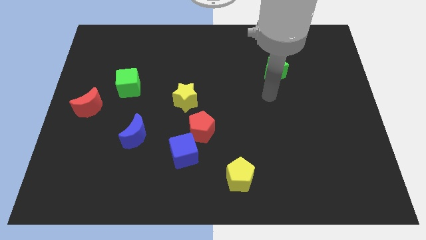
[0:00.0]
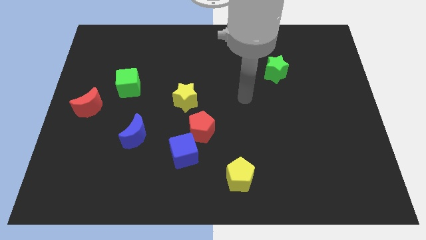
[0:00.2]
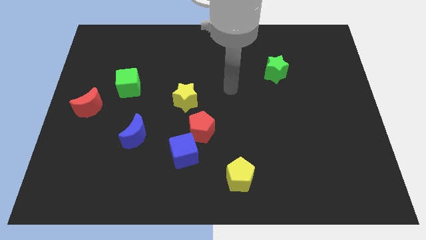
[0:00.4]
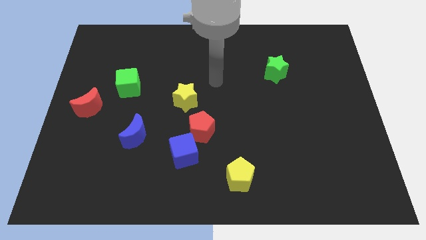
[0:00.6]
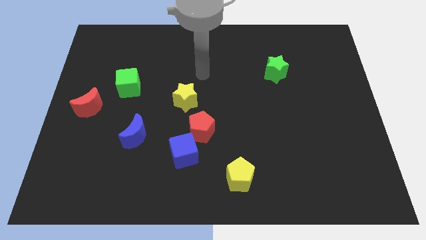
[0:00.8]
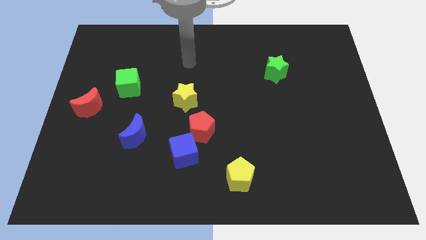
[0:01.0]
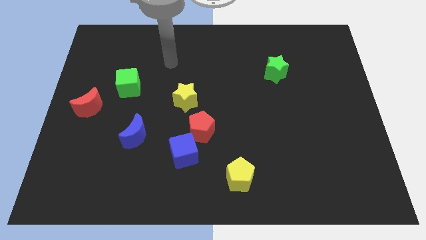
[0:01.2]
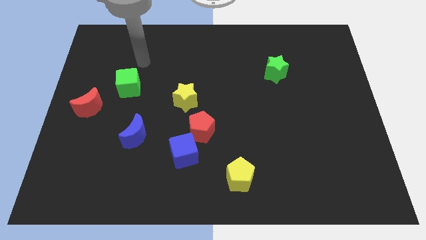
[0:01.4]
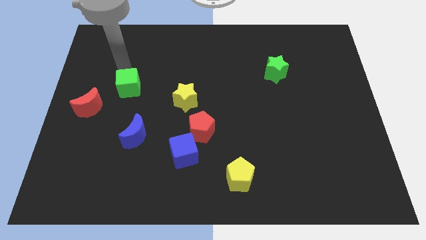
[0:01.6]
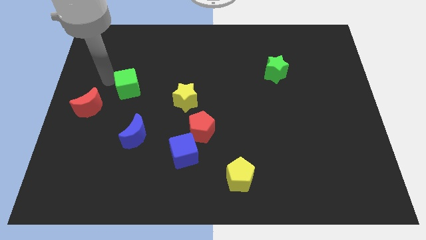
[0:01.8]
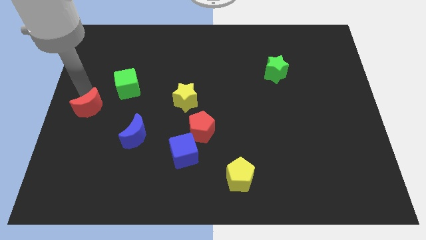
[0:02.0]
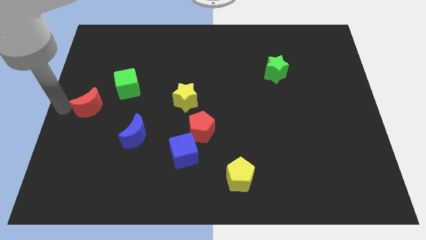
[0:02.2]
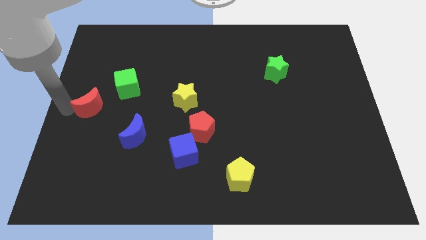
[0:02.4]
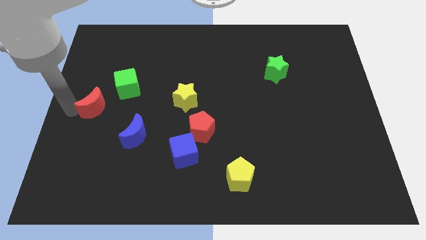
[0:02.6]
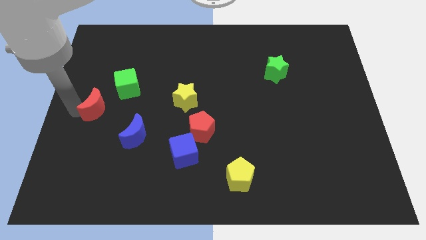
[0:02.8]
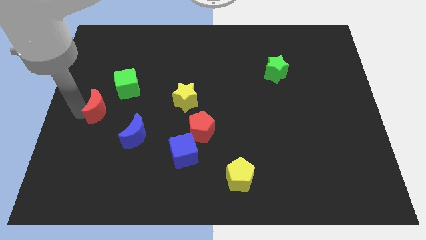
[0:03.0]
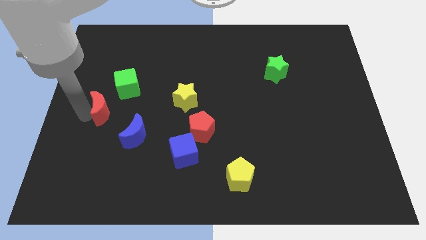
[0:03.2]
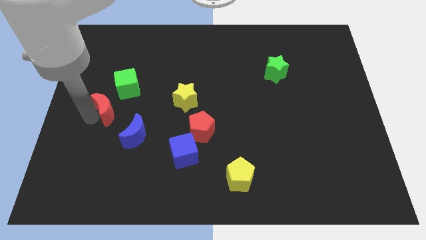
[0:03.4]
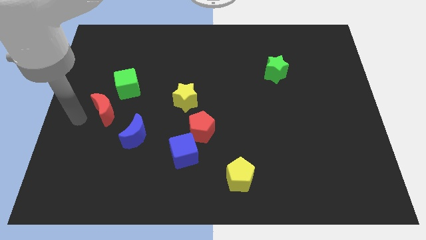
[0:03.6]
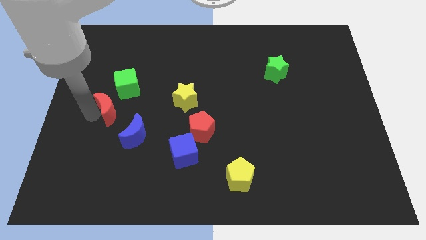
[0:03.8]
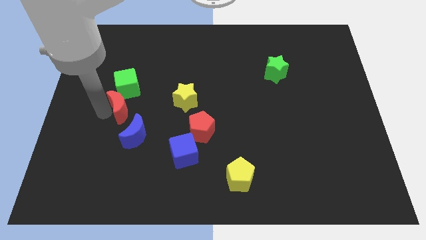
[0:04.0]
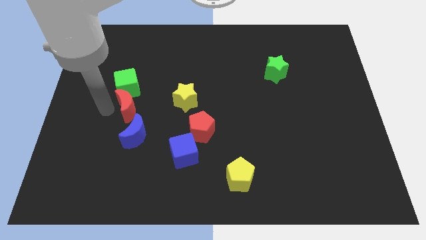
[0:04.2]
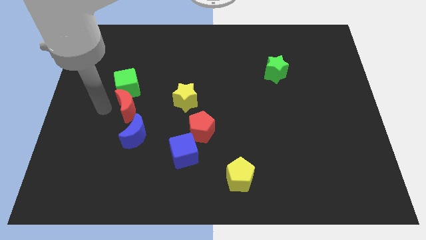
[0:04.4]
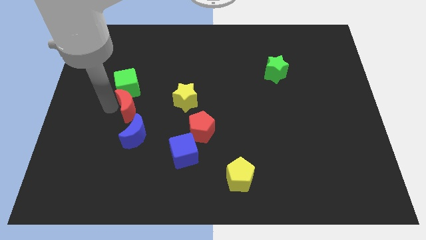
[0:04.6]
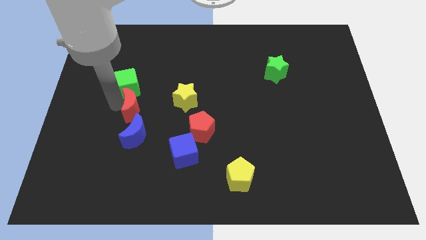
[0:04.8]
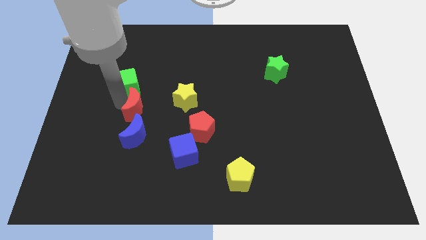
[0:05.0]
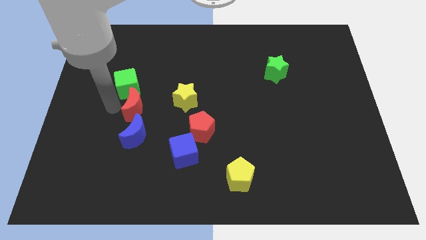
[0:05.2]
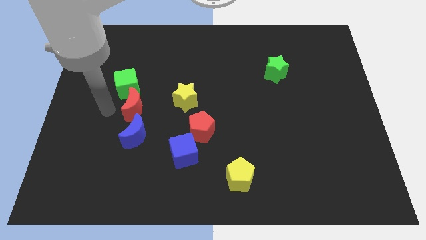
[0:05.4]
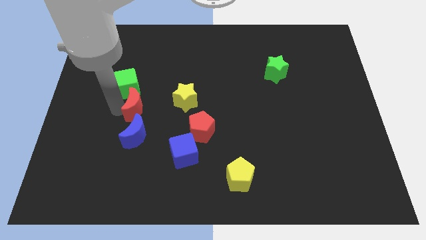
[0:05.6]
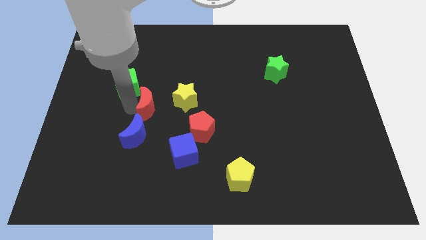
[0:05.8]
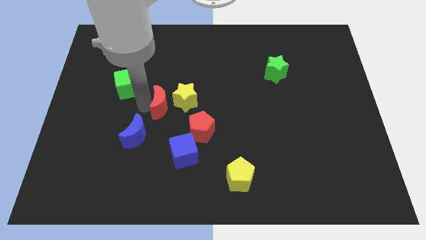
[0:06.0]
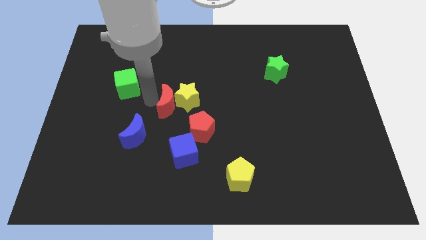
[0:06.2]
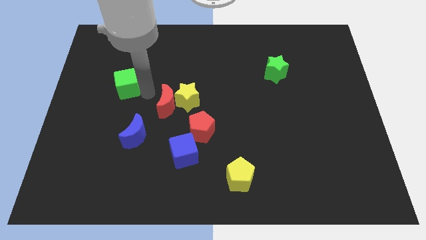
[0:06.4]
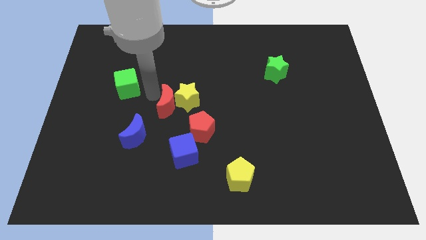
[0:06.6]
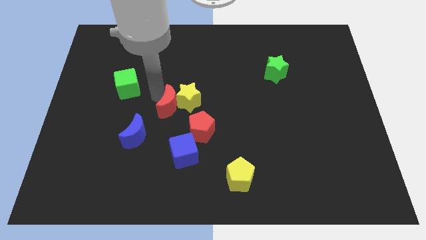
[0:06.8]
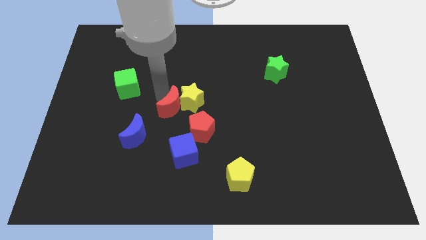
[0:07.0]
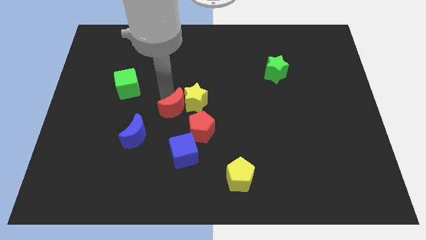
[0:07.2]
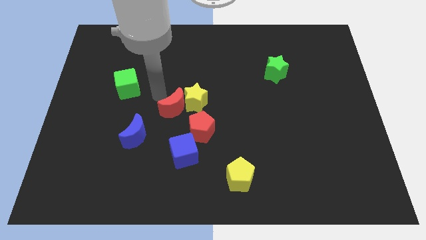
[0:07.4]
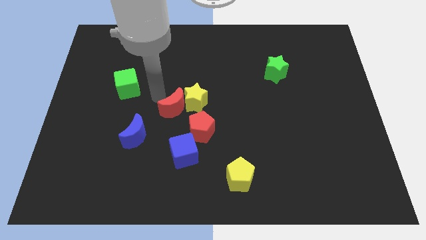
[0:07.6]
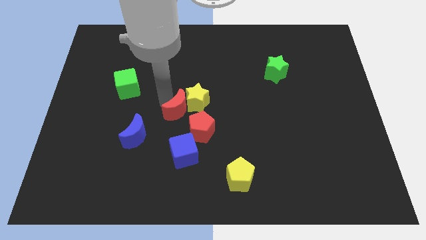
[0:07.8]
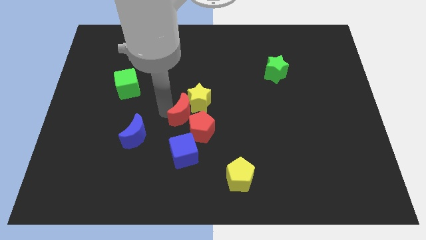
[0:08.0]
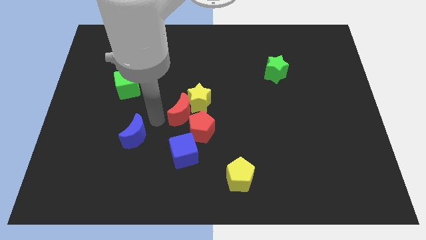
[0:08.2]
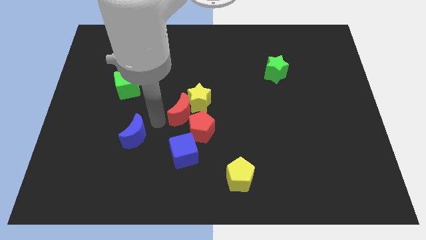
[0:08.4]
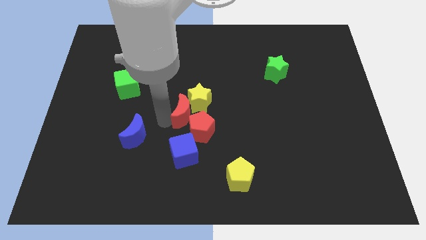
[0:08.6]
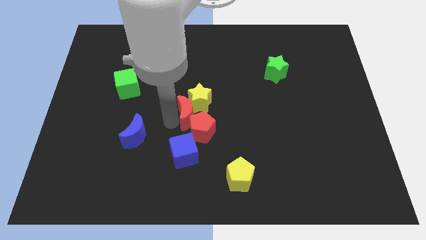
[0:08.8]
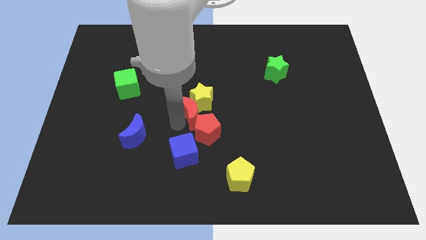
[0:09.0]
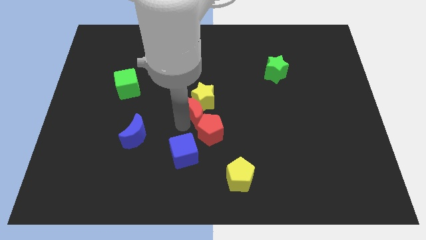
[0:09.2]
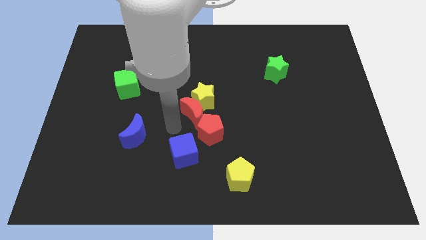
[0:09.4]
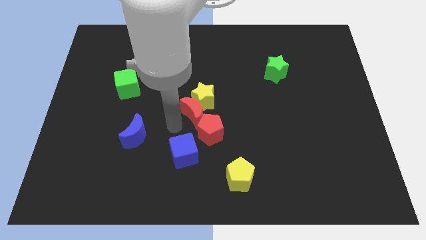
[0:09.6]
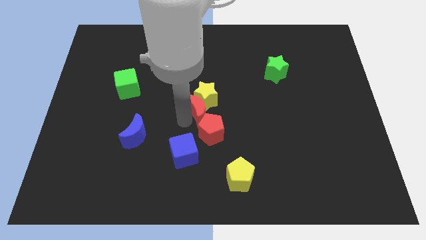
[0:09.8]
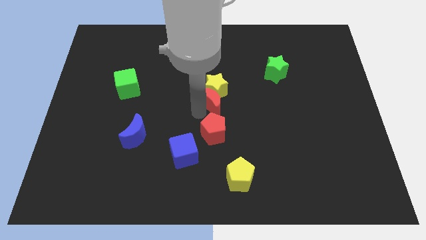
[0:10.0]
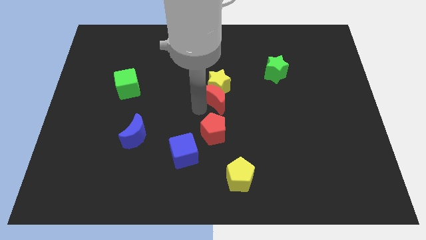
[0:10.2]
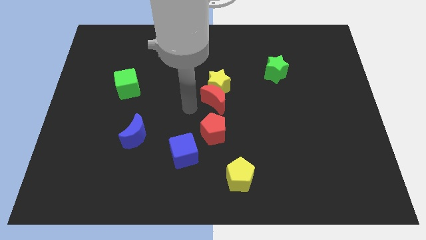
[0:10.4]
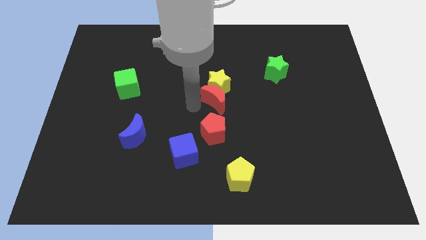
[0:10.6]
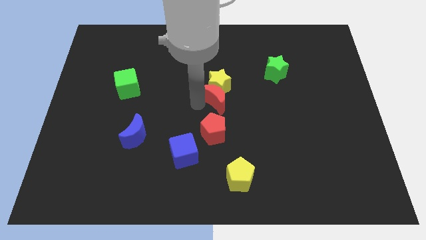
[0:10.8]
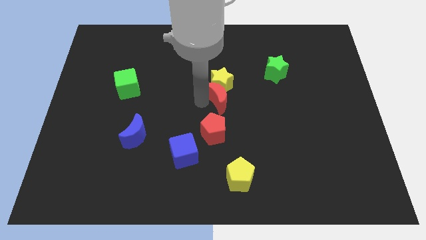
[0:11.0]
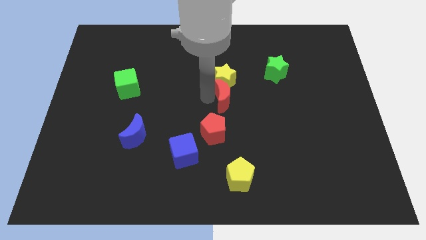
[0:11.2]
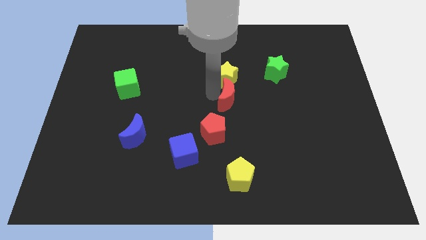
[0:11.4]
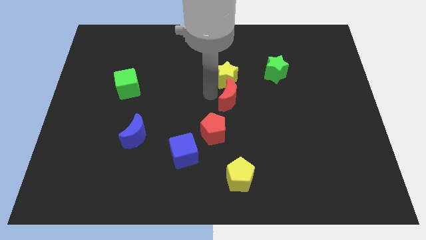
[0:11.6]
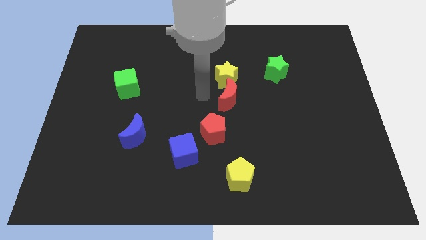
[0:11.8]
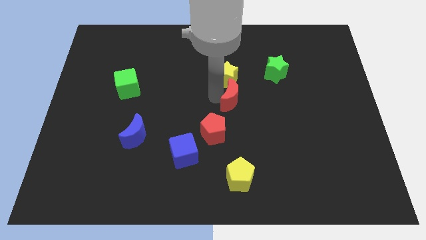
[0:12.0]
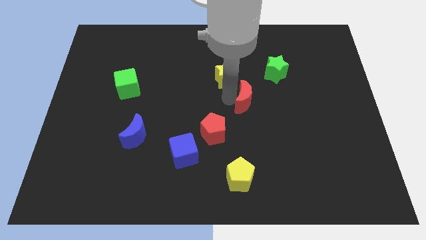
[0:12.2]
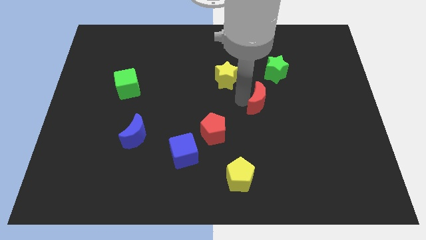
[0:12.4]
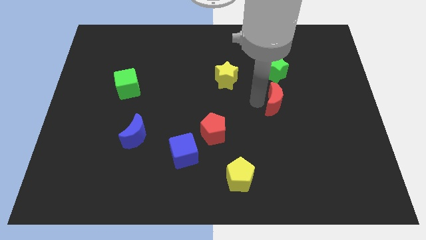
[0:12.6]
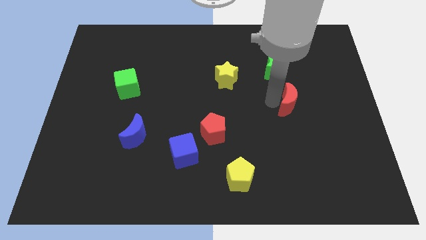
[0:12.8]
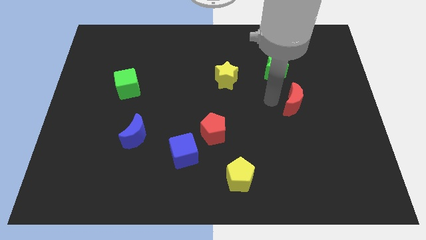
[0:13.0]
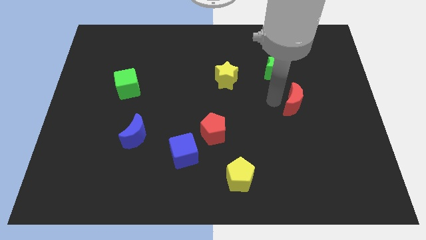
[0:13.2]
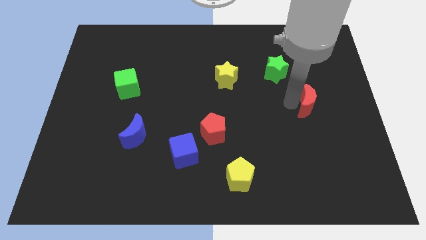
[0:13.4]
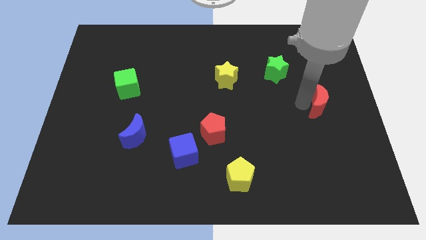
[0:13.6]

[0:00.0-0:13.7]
put the red moon to the right side

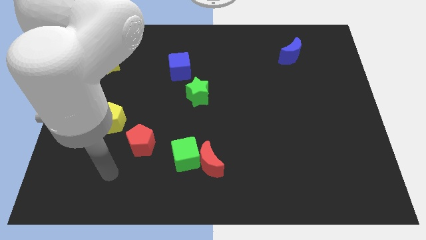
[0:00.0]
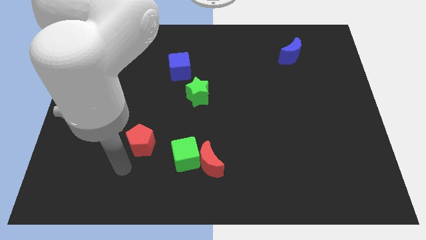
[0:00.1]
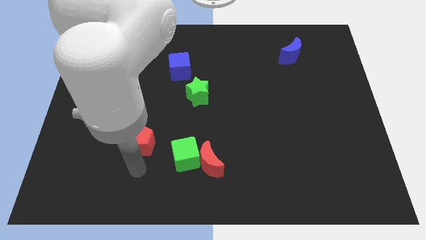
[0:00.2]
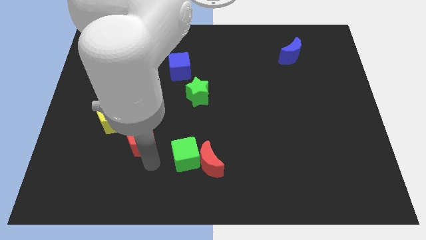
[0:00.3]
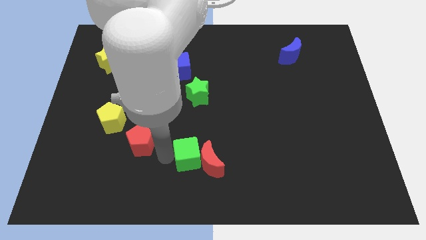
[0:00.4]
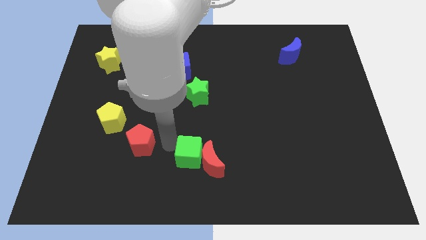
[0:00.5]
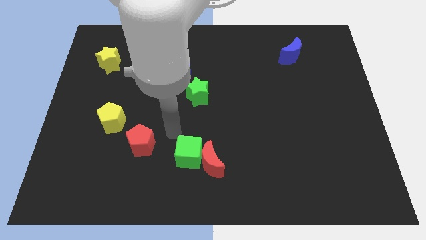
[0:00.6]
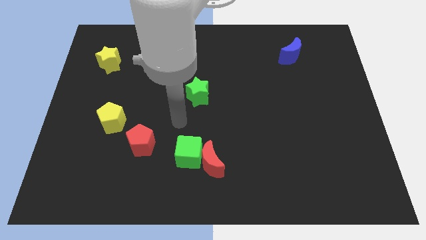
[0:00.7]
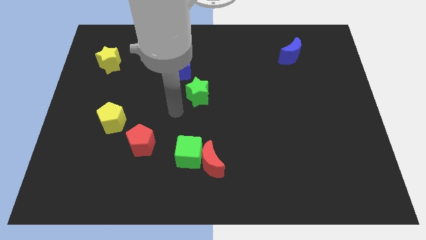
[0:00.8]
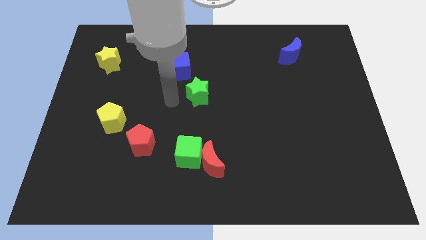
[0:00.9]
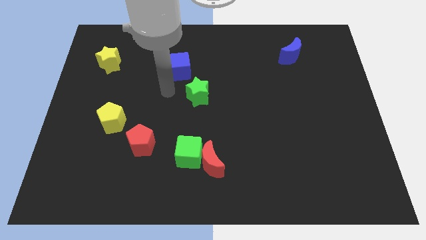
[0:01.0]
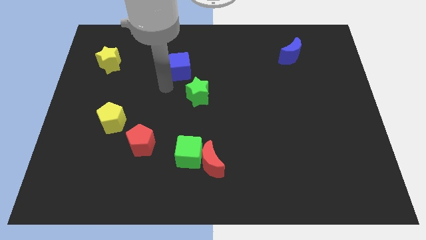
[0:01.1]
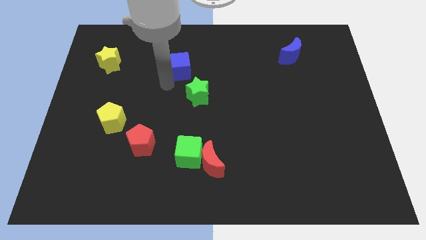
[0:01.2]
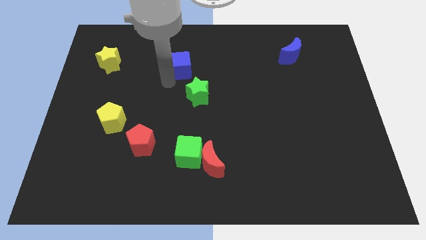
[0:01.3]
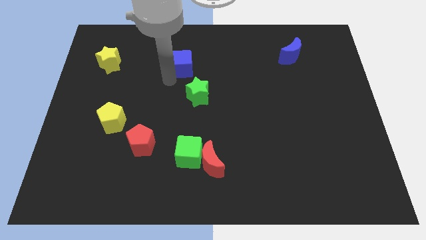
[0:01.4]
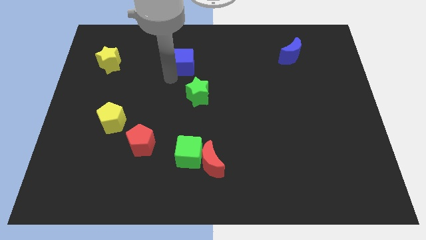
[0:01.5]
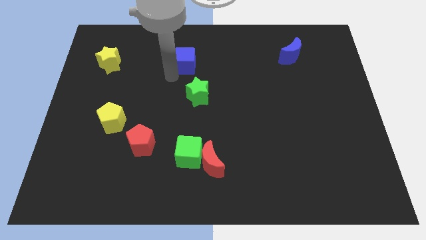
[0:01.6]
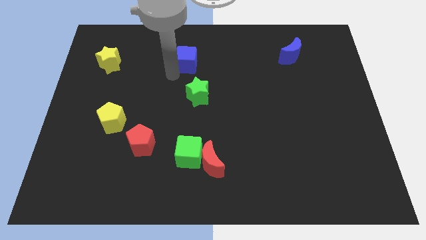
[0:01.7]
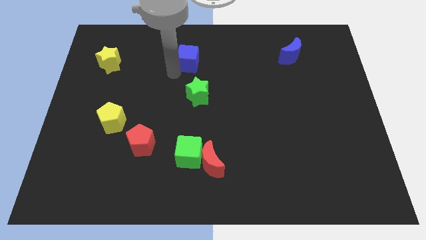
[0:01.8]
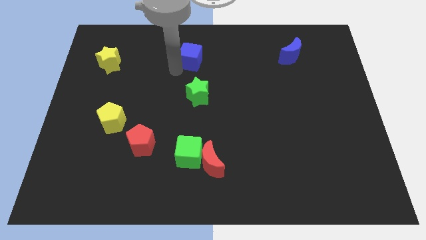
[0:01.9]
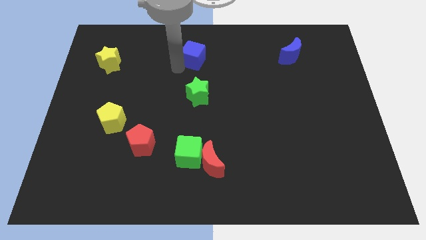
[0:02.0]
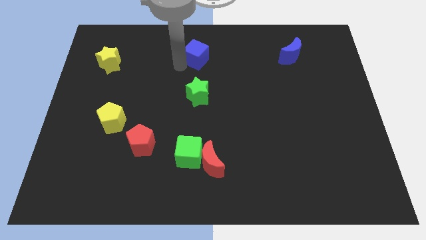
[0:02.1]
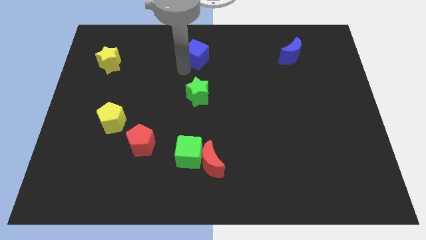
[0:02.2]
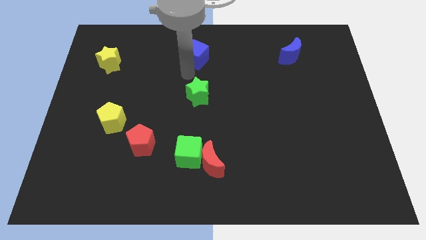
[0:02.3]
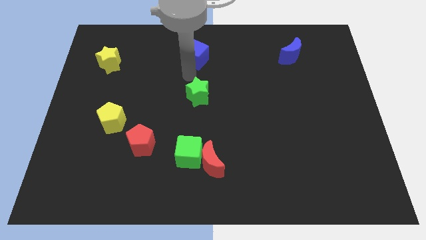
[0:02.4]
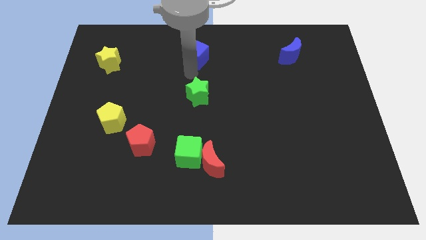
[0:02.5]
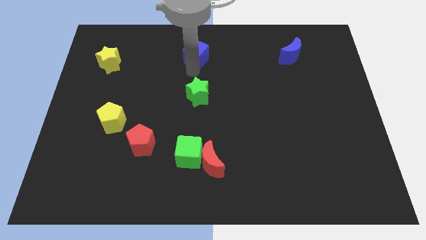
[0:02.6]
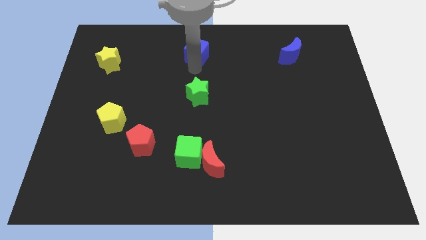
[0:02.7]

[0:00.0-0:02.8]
put the blue cube to the top side
